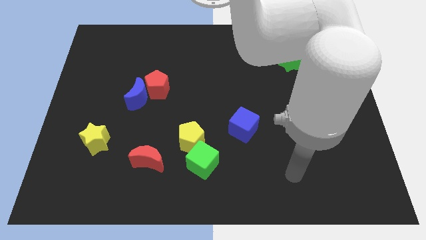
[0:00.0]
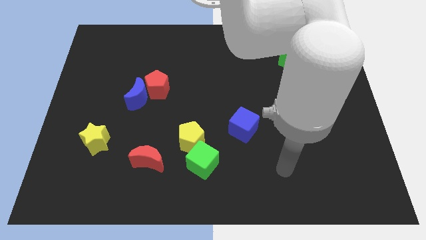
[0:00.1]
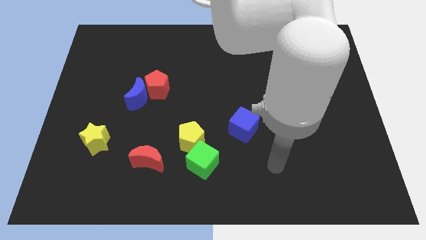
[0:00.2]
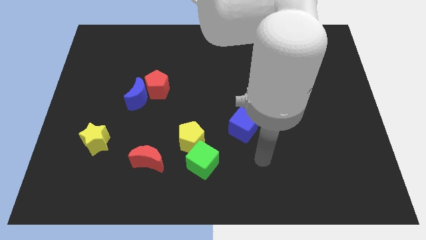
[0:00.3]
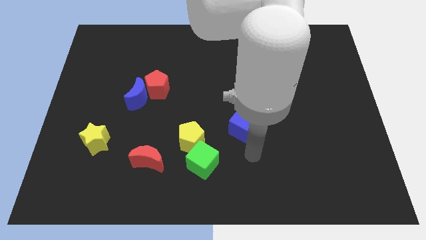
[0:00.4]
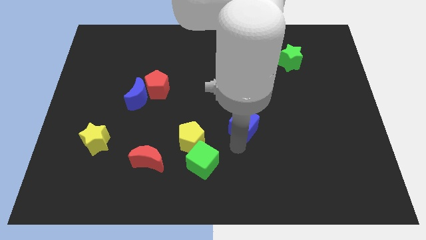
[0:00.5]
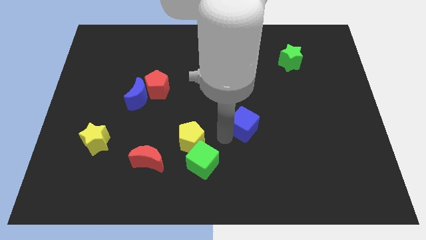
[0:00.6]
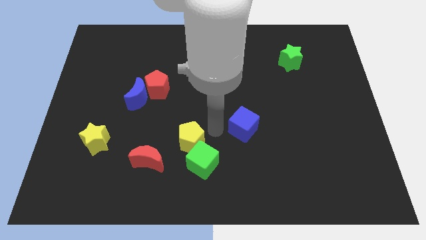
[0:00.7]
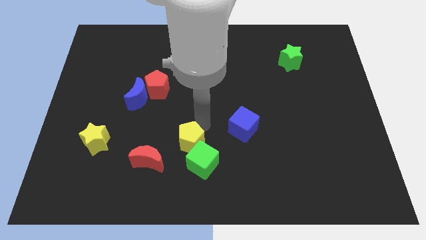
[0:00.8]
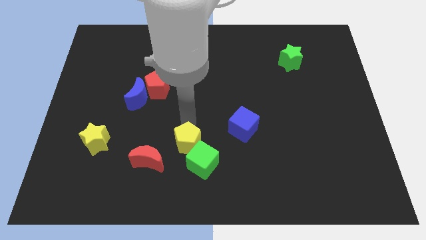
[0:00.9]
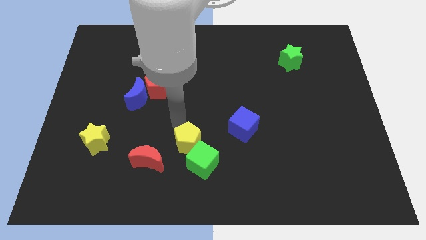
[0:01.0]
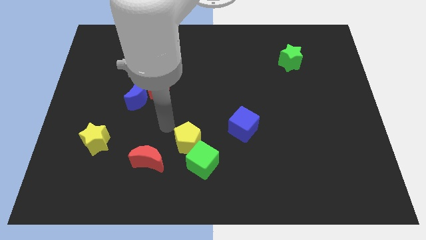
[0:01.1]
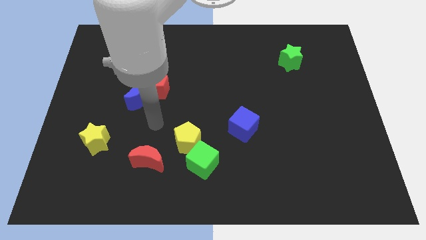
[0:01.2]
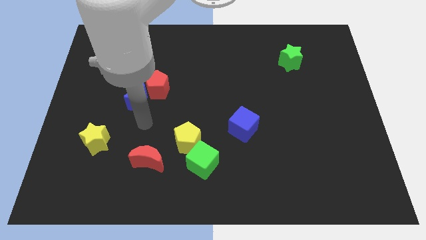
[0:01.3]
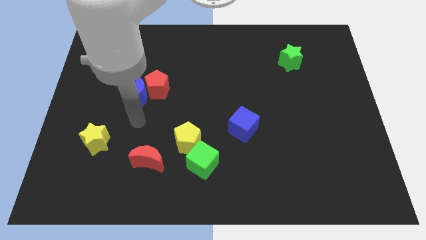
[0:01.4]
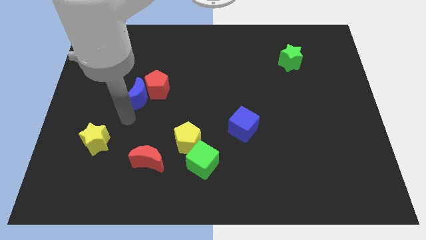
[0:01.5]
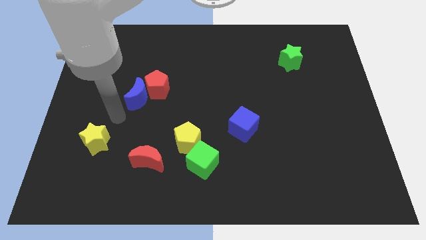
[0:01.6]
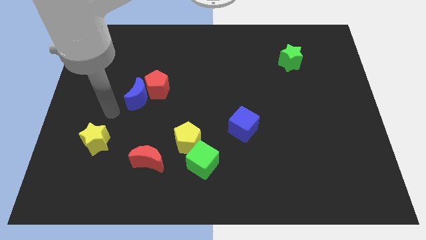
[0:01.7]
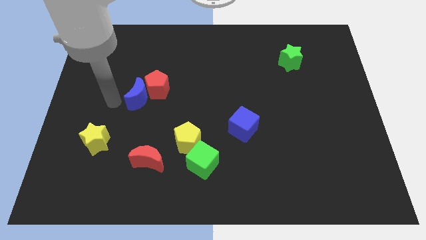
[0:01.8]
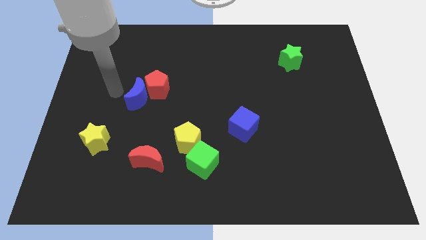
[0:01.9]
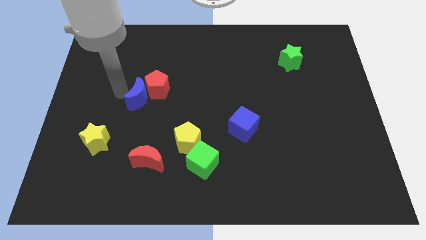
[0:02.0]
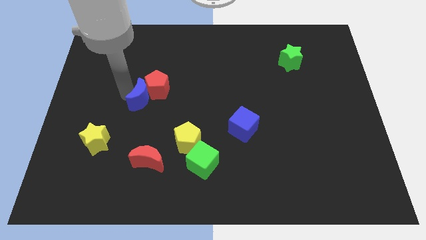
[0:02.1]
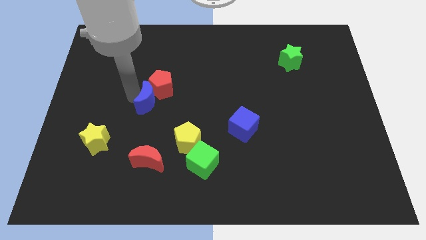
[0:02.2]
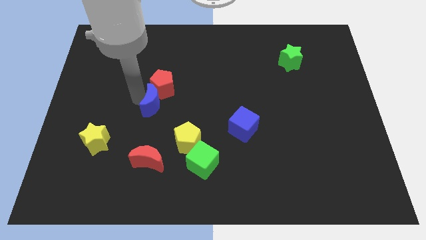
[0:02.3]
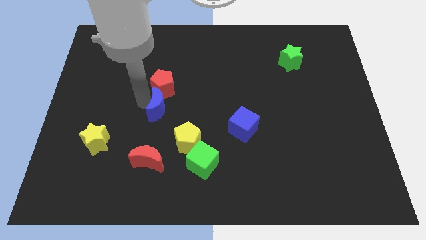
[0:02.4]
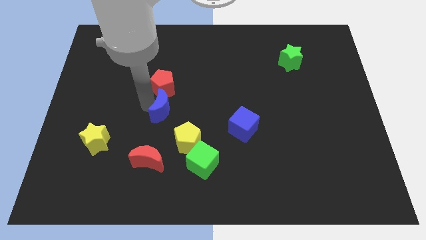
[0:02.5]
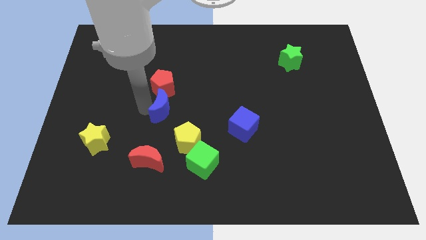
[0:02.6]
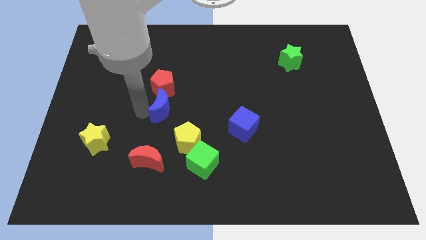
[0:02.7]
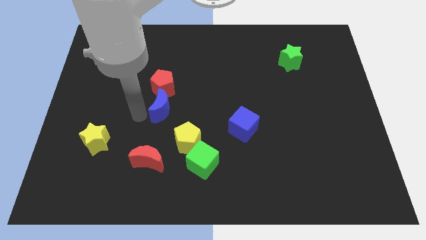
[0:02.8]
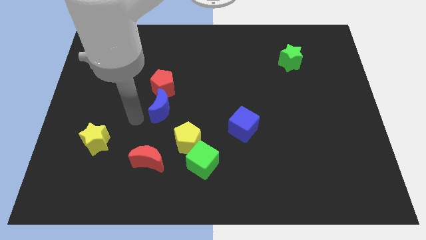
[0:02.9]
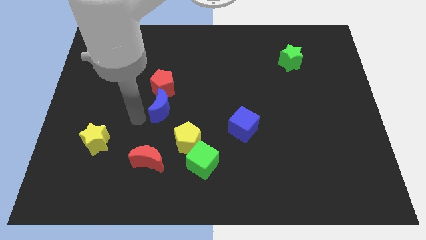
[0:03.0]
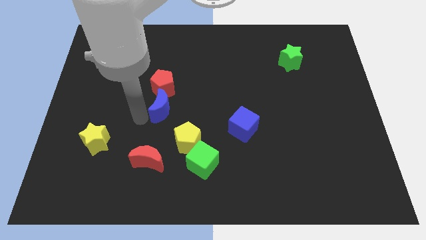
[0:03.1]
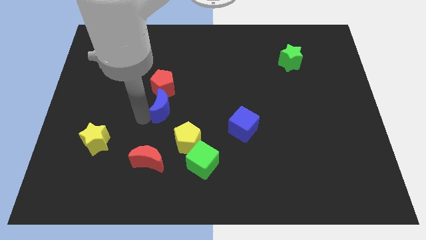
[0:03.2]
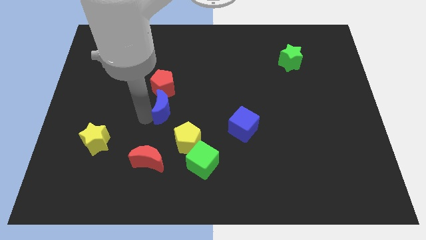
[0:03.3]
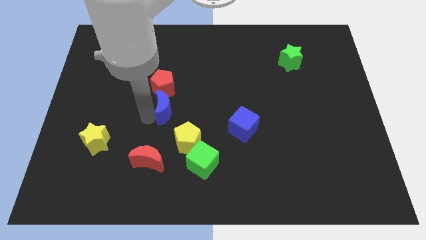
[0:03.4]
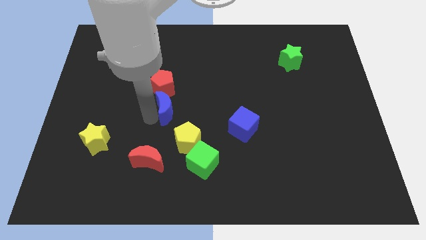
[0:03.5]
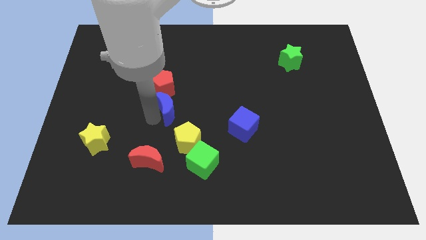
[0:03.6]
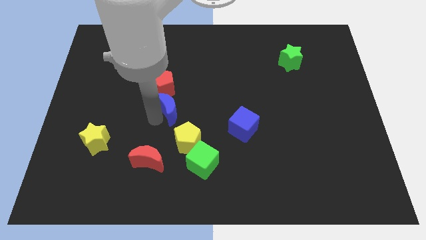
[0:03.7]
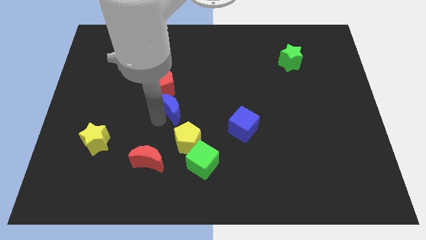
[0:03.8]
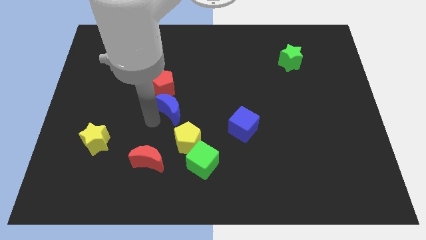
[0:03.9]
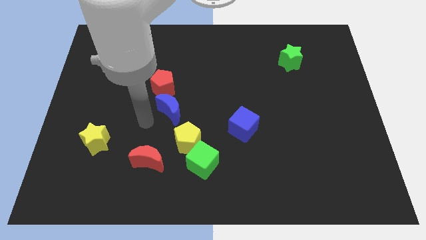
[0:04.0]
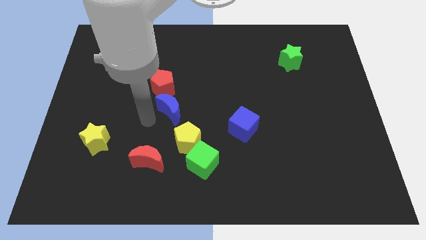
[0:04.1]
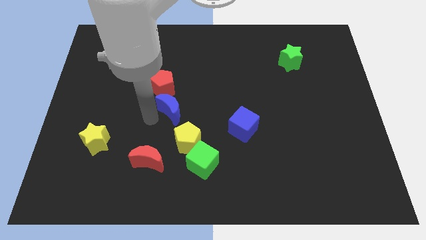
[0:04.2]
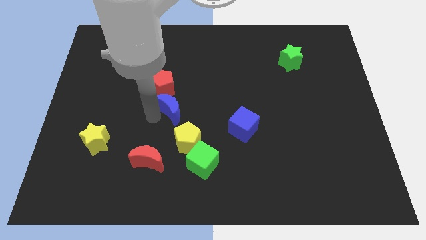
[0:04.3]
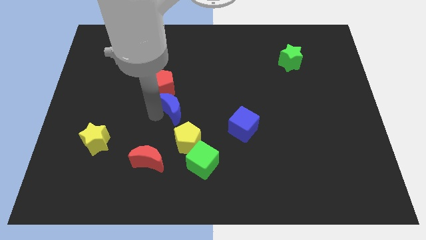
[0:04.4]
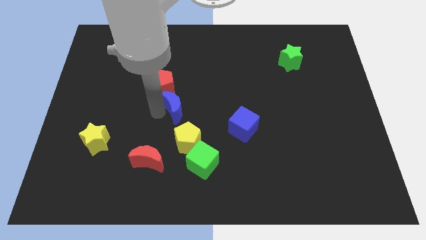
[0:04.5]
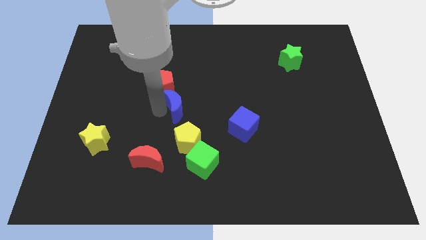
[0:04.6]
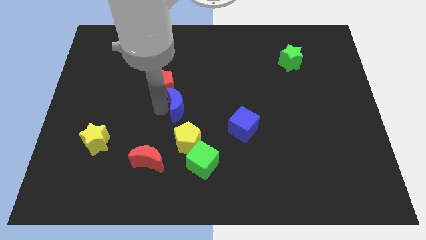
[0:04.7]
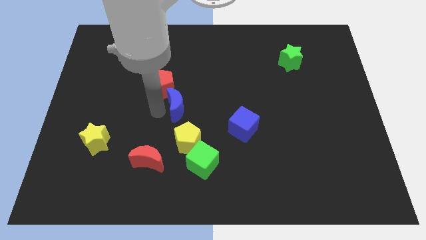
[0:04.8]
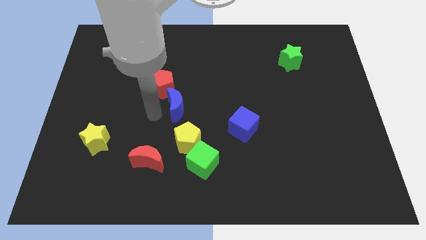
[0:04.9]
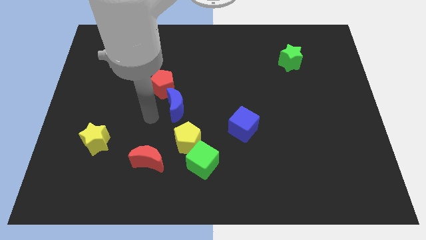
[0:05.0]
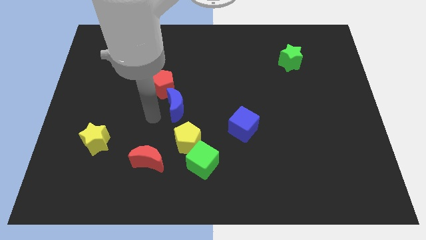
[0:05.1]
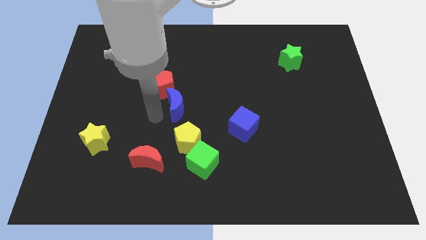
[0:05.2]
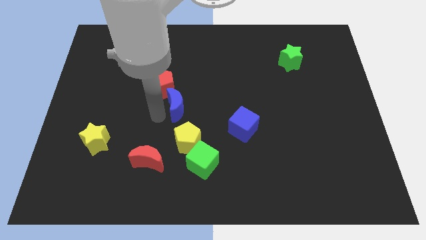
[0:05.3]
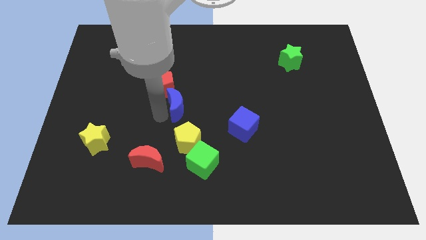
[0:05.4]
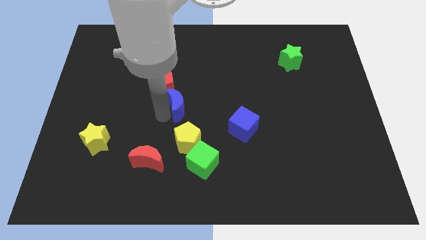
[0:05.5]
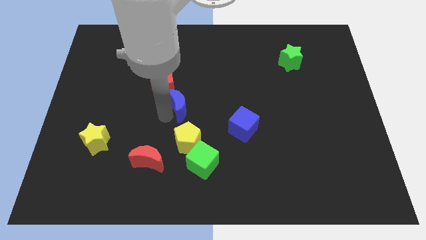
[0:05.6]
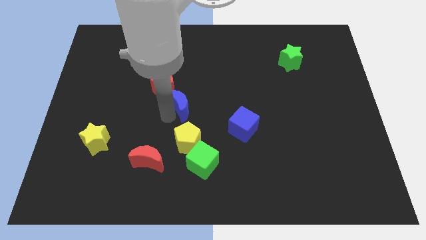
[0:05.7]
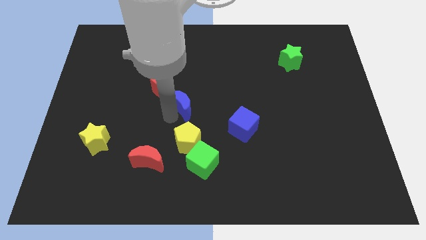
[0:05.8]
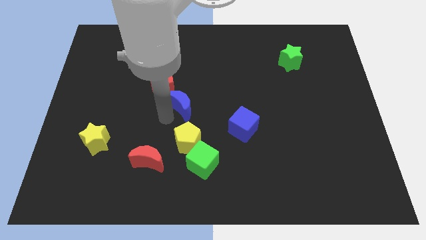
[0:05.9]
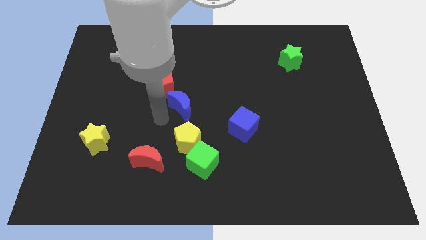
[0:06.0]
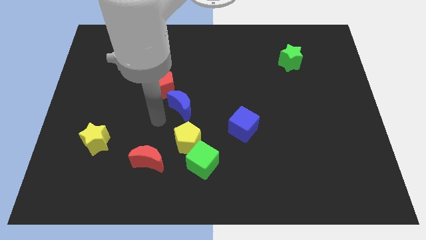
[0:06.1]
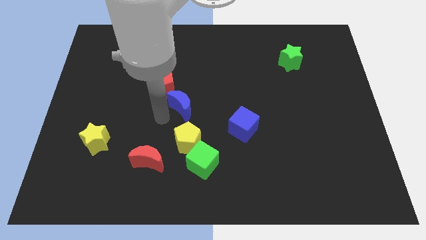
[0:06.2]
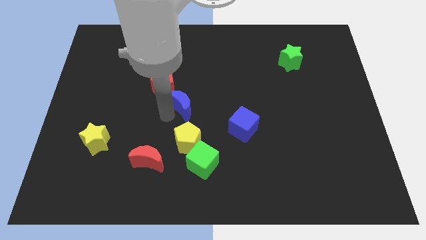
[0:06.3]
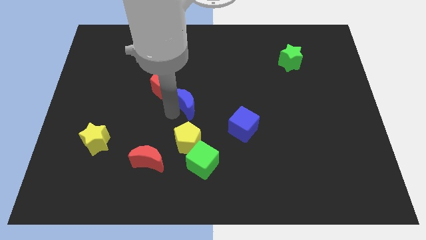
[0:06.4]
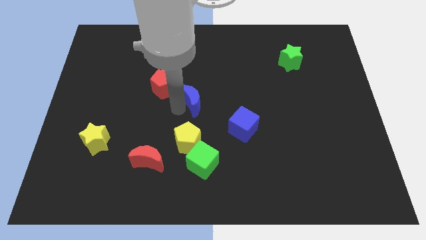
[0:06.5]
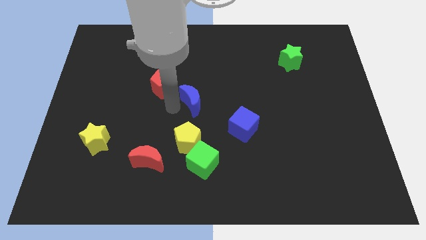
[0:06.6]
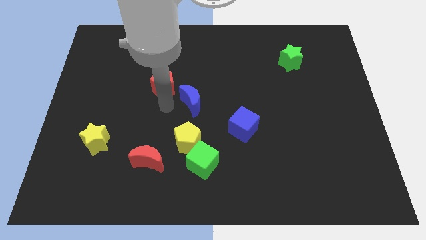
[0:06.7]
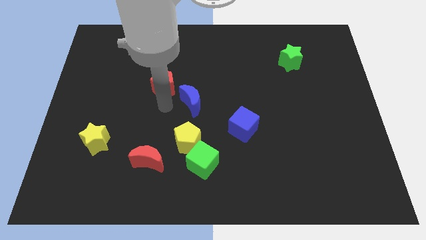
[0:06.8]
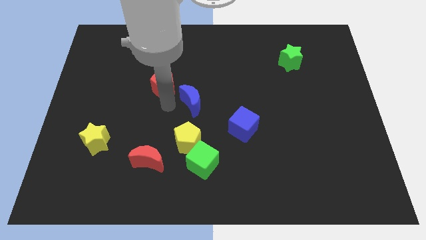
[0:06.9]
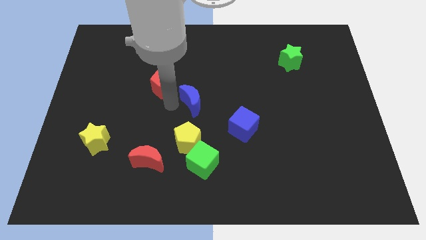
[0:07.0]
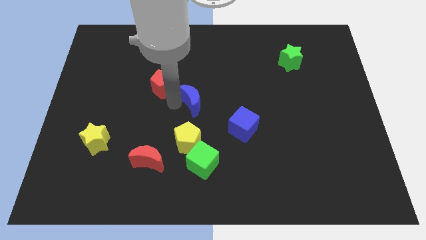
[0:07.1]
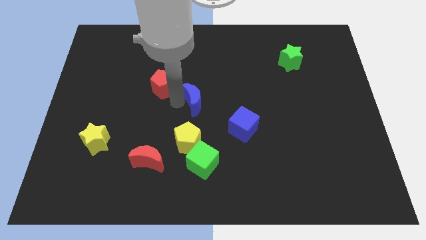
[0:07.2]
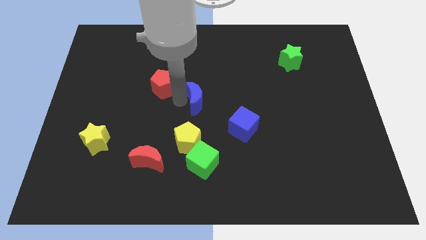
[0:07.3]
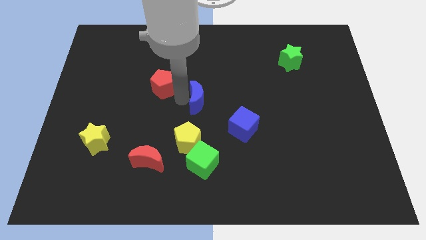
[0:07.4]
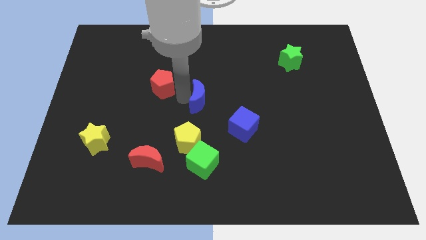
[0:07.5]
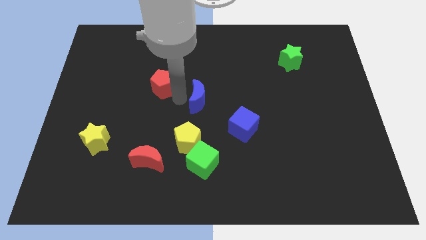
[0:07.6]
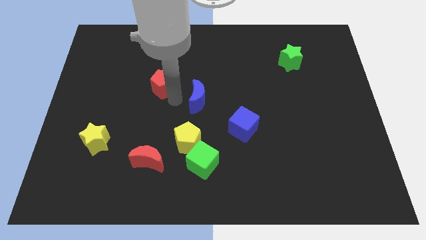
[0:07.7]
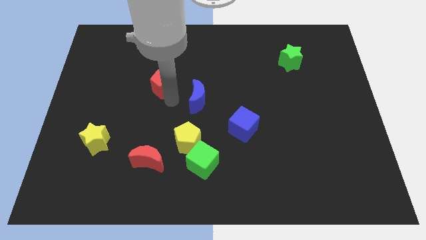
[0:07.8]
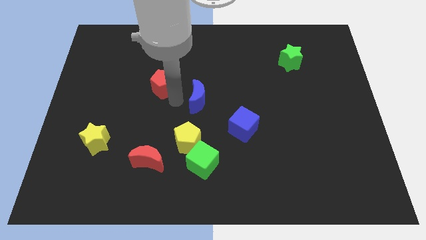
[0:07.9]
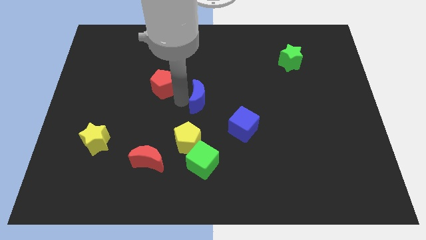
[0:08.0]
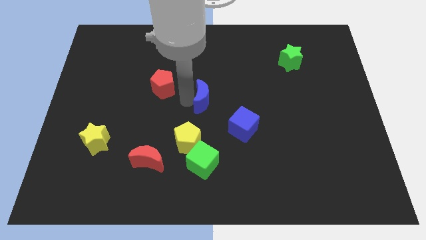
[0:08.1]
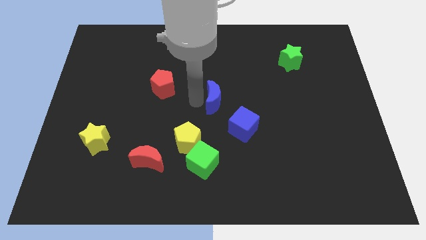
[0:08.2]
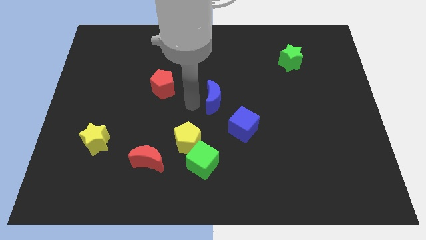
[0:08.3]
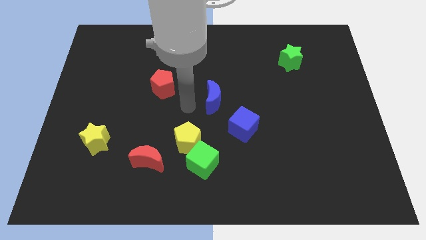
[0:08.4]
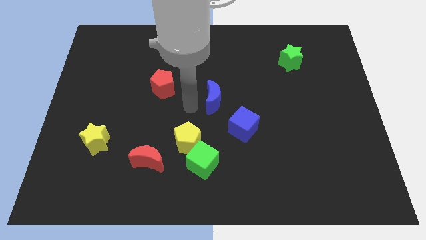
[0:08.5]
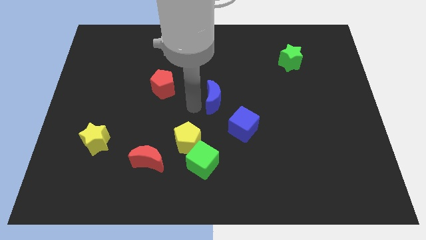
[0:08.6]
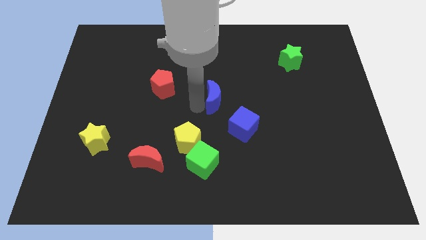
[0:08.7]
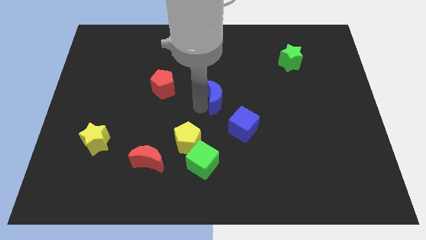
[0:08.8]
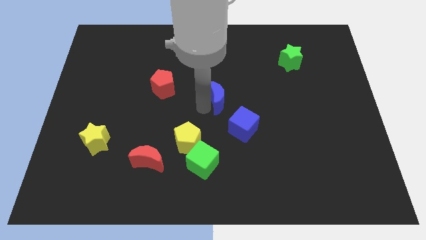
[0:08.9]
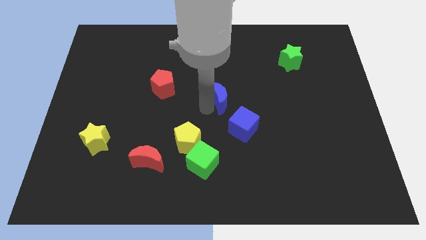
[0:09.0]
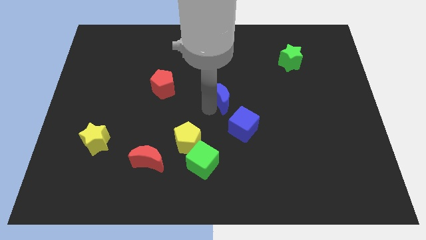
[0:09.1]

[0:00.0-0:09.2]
push the blue moon right
